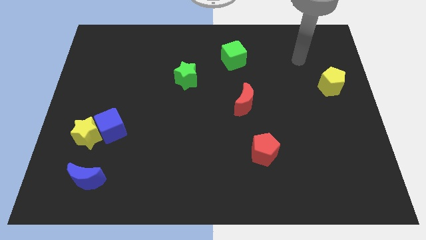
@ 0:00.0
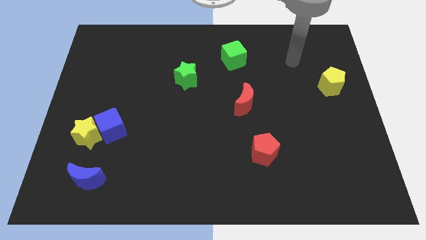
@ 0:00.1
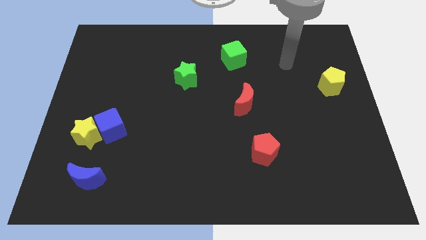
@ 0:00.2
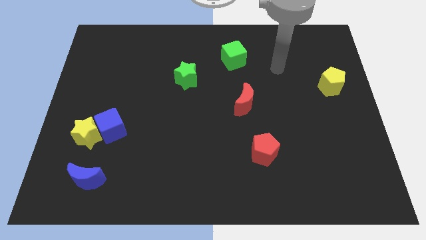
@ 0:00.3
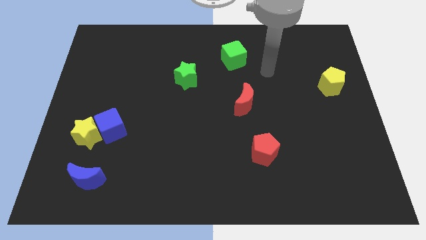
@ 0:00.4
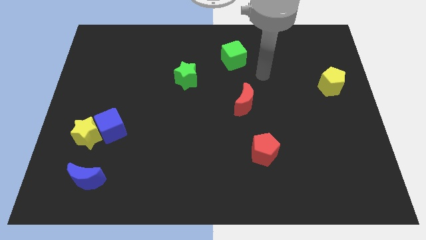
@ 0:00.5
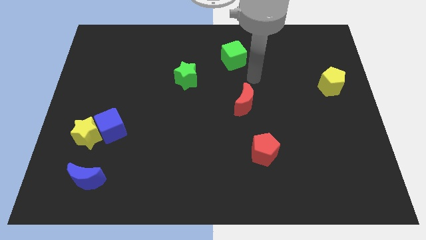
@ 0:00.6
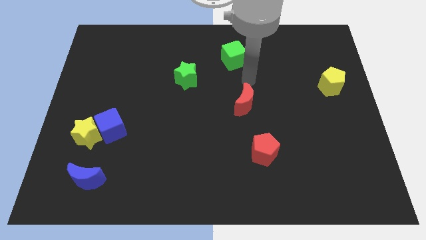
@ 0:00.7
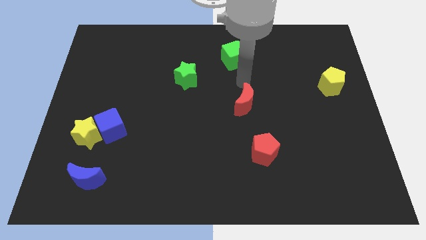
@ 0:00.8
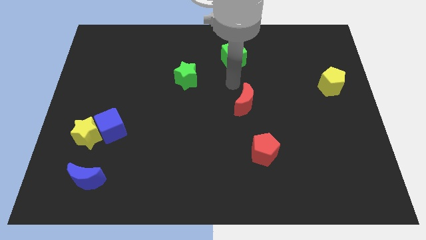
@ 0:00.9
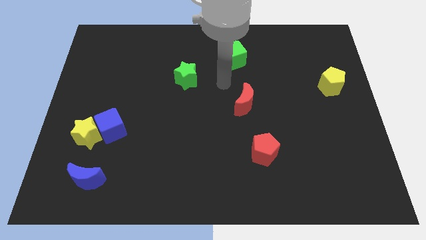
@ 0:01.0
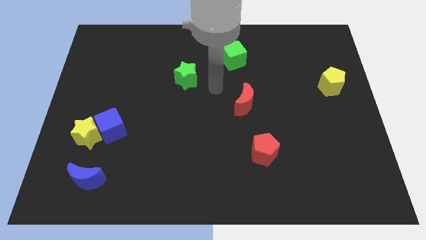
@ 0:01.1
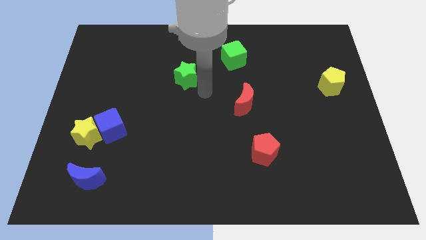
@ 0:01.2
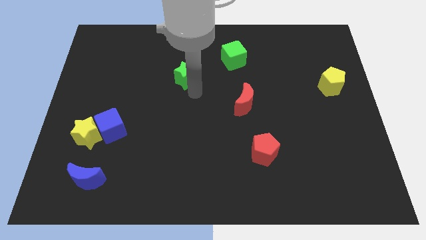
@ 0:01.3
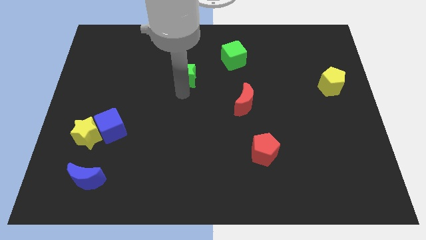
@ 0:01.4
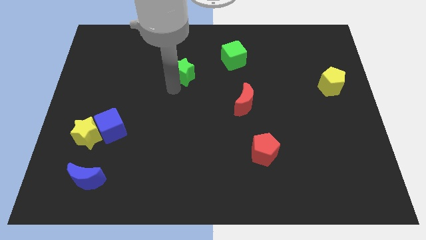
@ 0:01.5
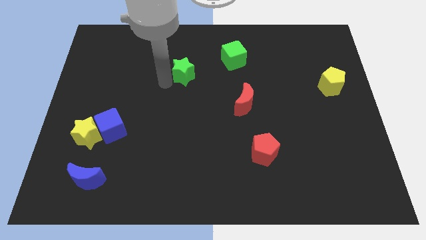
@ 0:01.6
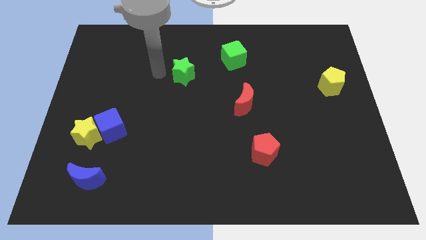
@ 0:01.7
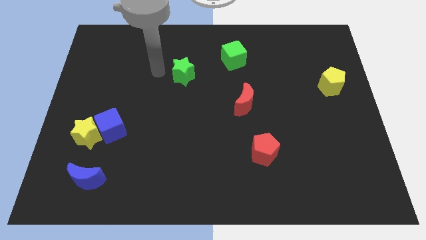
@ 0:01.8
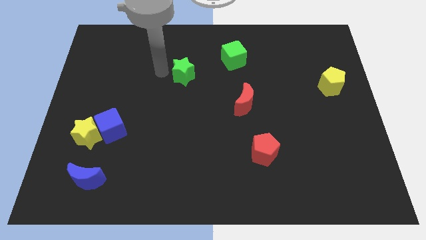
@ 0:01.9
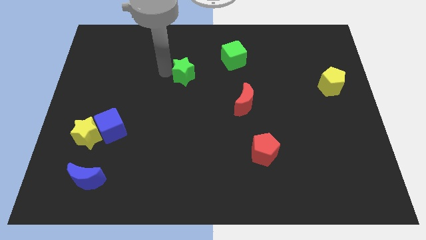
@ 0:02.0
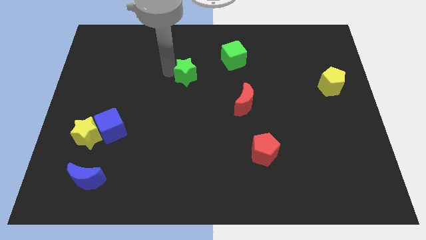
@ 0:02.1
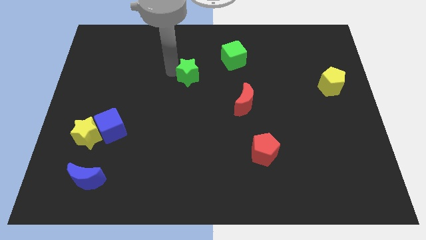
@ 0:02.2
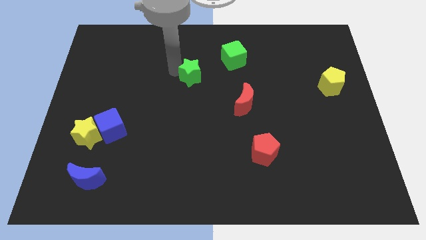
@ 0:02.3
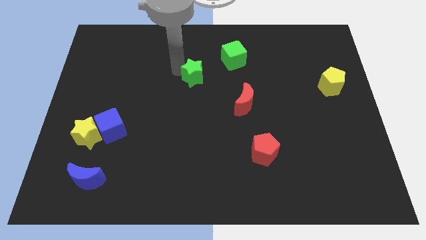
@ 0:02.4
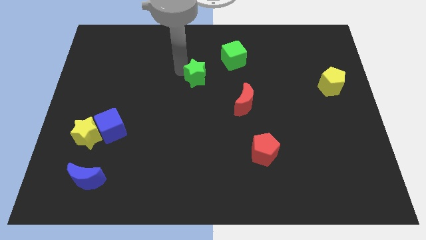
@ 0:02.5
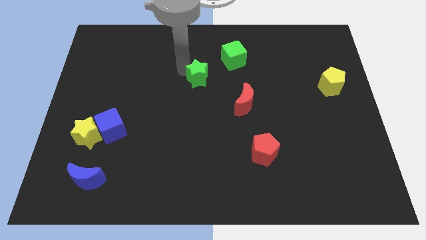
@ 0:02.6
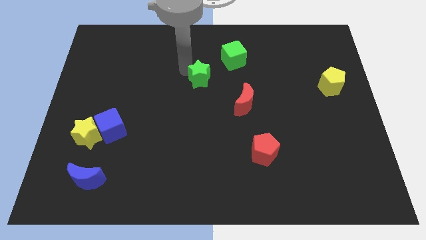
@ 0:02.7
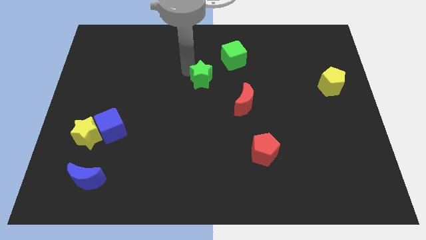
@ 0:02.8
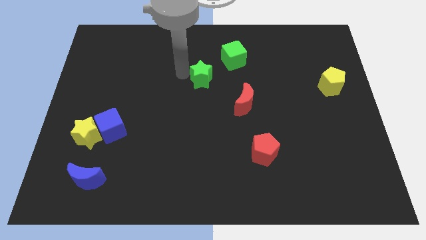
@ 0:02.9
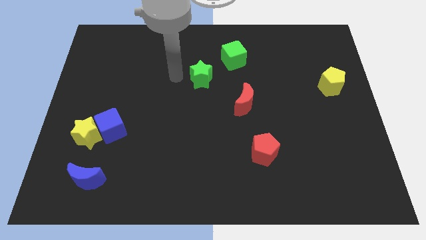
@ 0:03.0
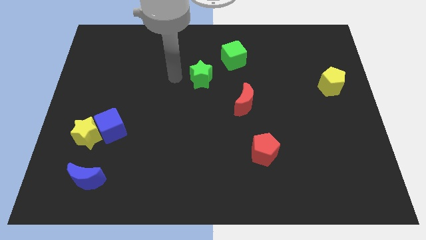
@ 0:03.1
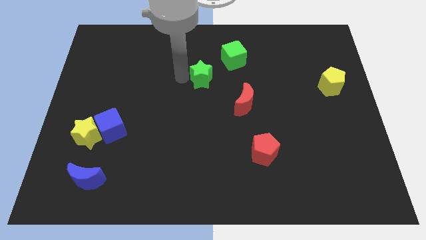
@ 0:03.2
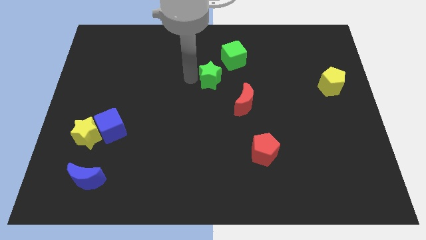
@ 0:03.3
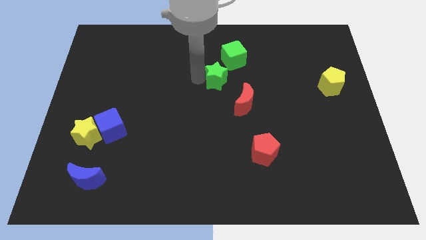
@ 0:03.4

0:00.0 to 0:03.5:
slide the green star to the right a little bit

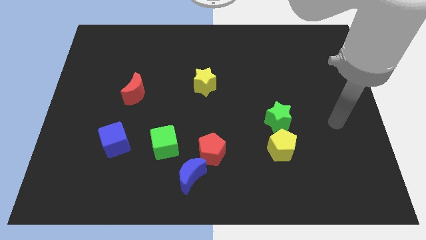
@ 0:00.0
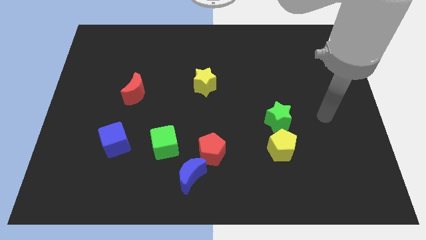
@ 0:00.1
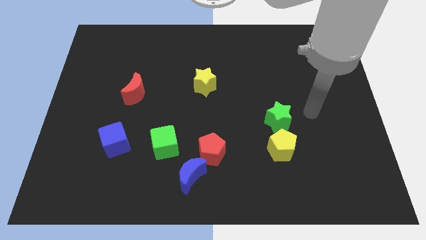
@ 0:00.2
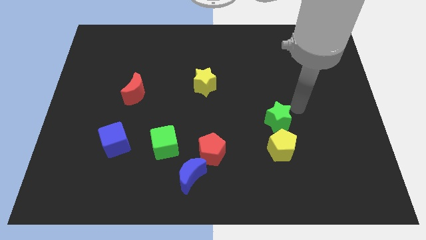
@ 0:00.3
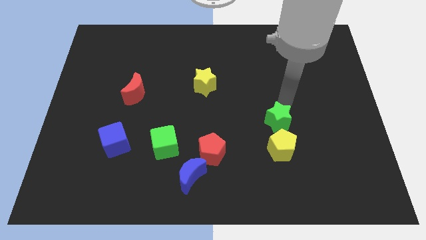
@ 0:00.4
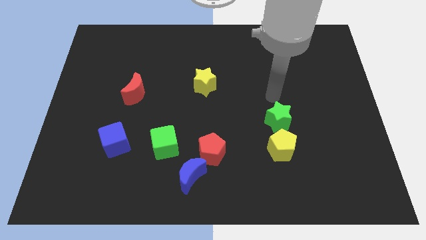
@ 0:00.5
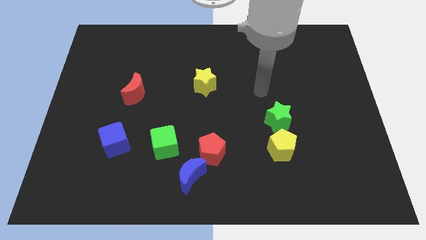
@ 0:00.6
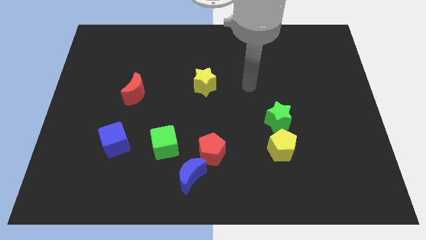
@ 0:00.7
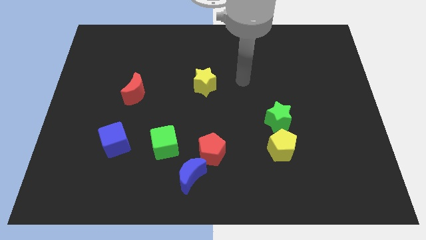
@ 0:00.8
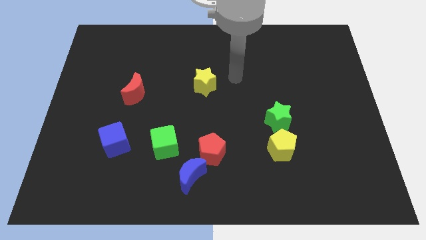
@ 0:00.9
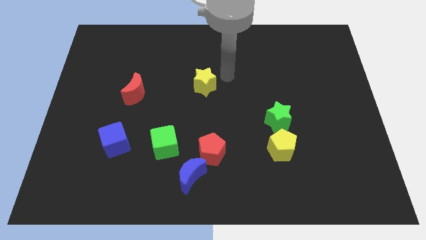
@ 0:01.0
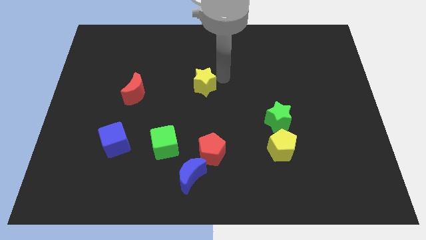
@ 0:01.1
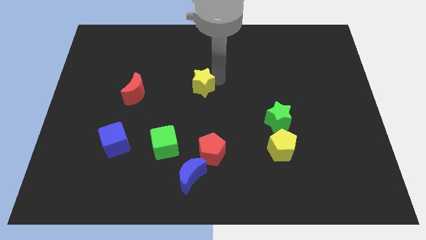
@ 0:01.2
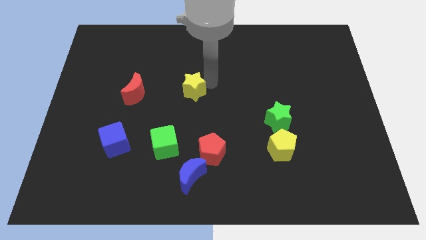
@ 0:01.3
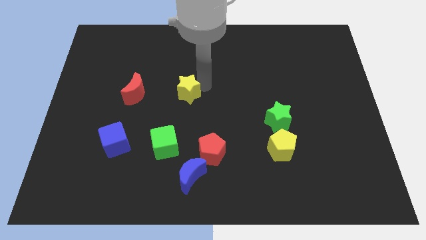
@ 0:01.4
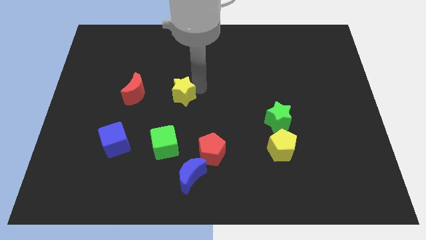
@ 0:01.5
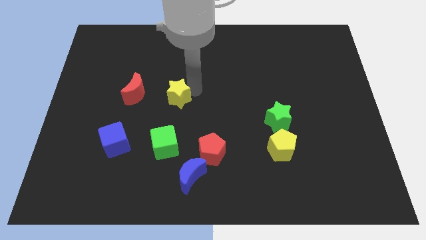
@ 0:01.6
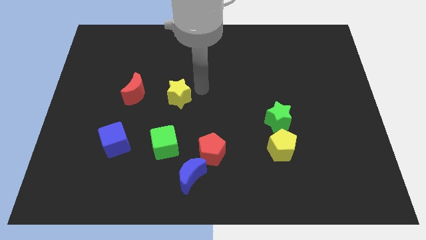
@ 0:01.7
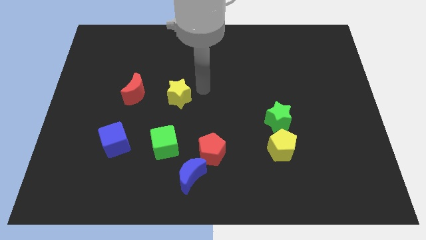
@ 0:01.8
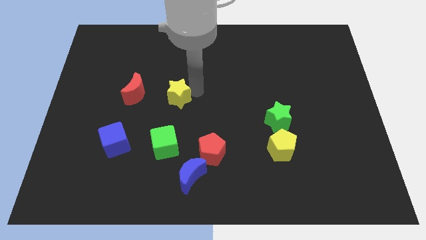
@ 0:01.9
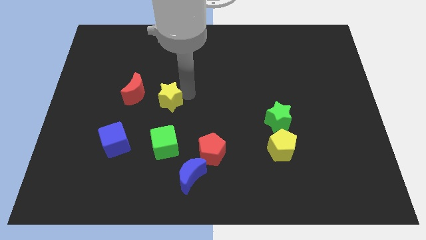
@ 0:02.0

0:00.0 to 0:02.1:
move the yellow star to the left a little

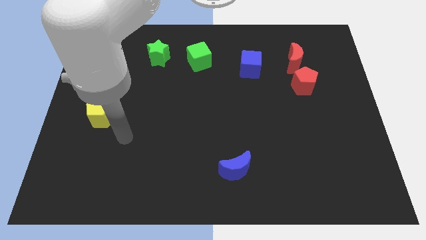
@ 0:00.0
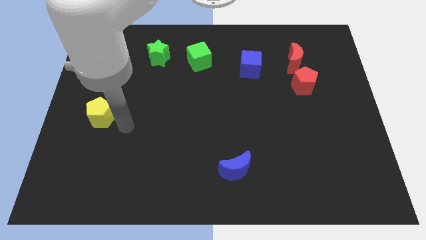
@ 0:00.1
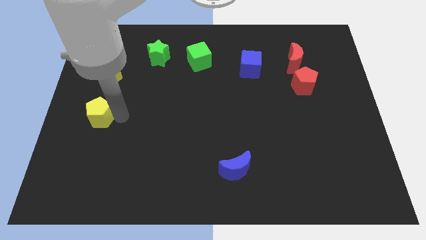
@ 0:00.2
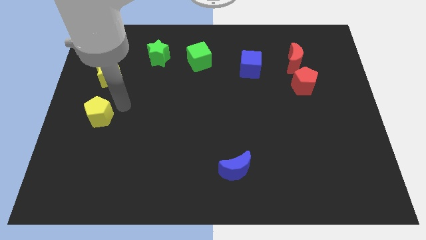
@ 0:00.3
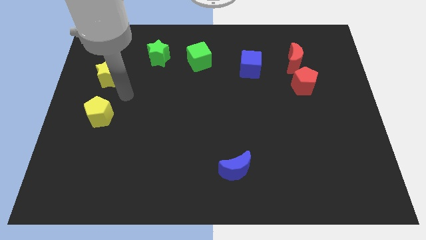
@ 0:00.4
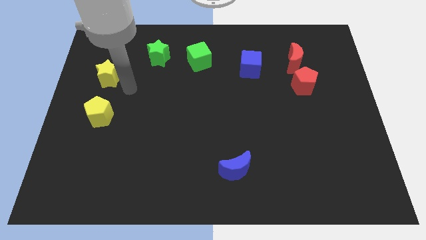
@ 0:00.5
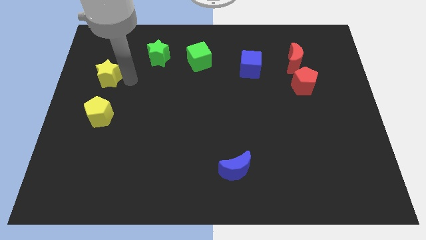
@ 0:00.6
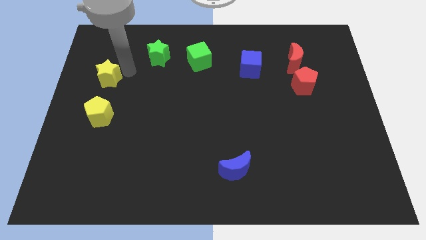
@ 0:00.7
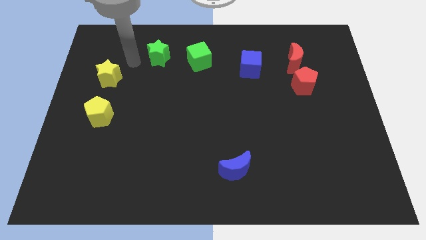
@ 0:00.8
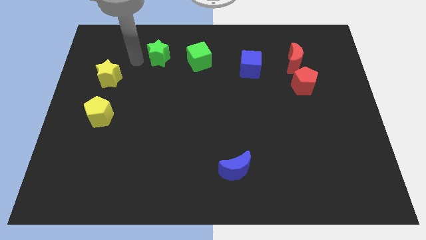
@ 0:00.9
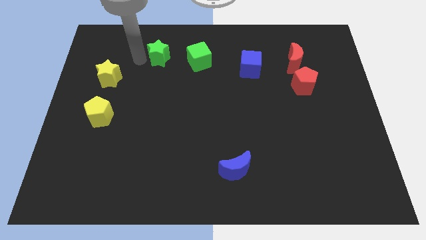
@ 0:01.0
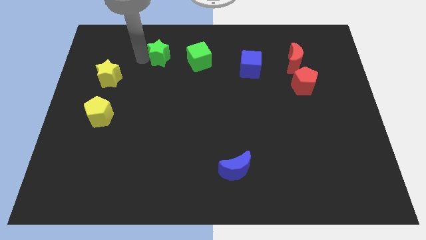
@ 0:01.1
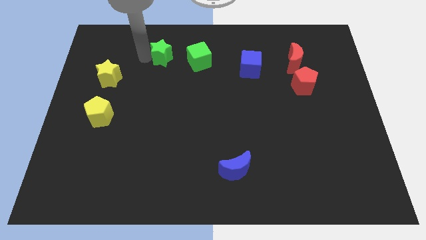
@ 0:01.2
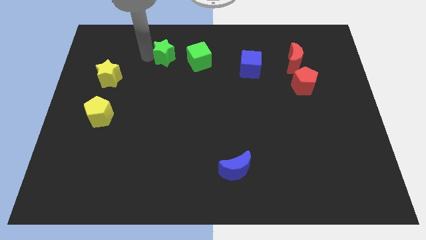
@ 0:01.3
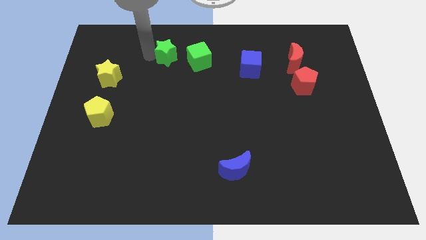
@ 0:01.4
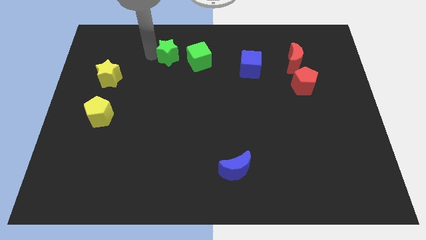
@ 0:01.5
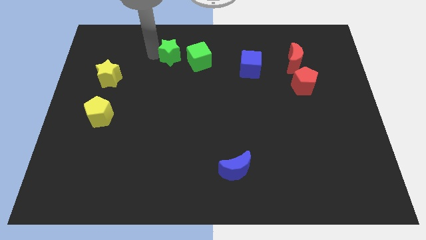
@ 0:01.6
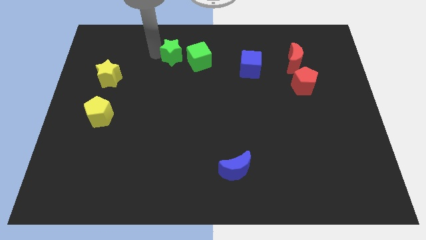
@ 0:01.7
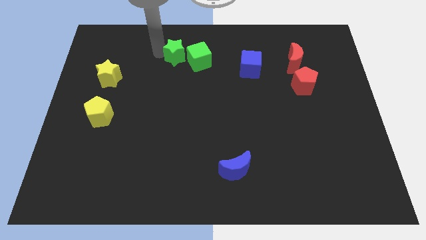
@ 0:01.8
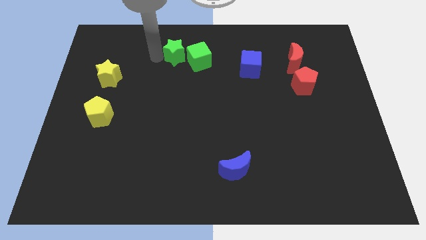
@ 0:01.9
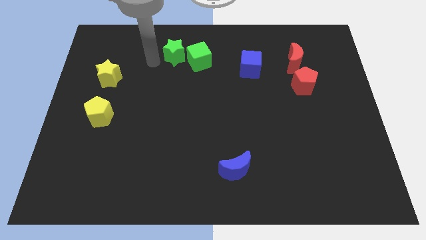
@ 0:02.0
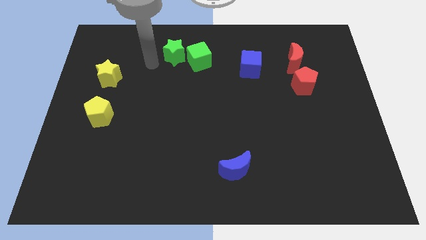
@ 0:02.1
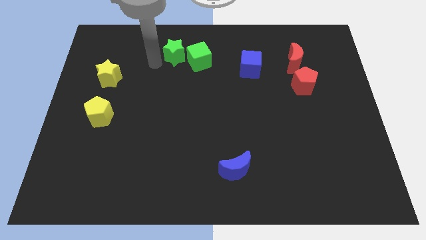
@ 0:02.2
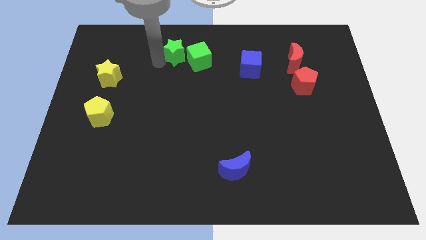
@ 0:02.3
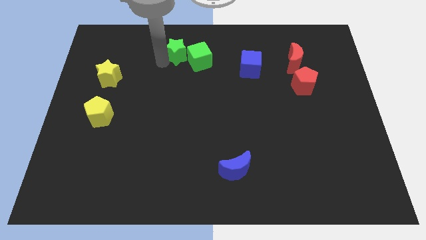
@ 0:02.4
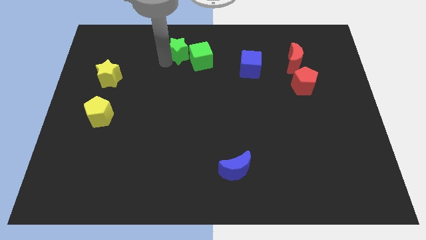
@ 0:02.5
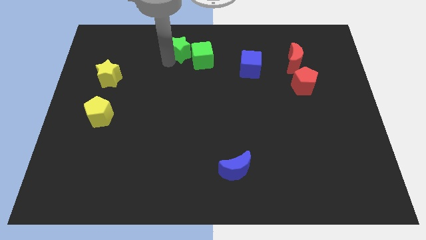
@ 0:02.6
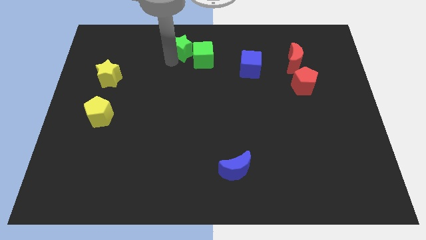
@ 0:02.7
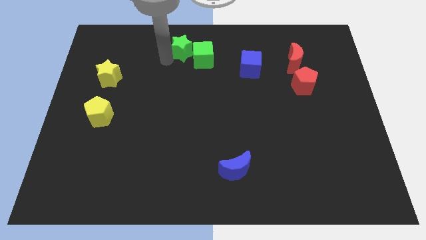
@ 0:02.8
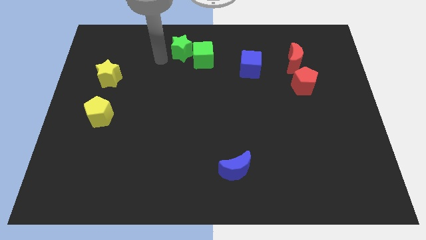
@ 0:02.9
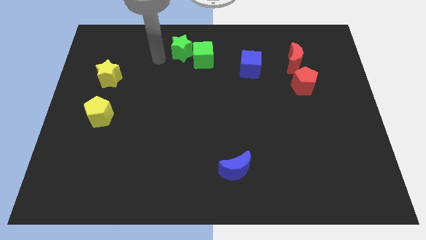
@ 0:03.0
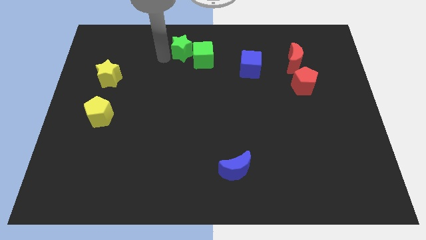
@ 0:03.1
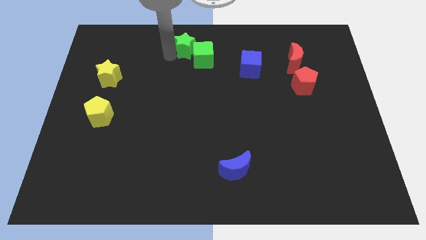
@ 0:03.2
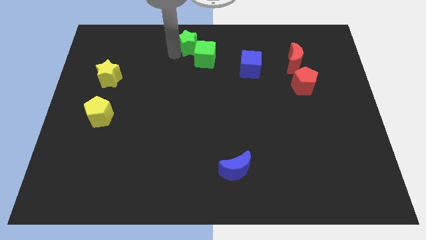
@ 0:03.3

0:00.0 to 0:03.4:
slightly move the green star to the right
